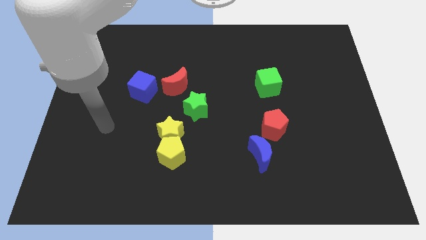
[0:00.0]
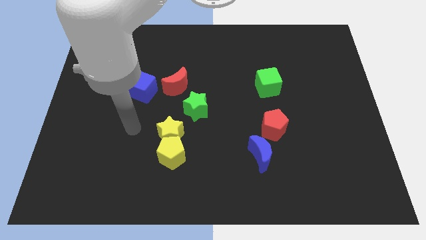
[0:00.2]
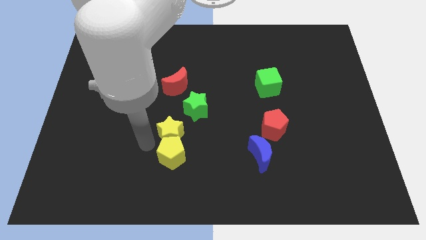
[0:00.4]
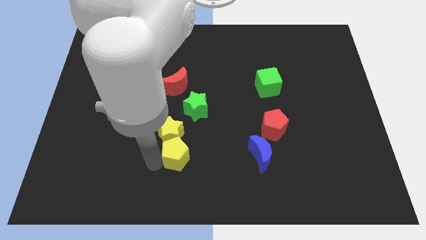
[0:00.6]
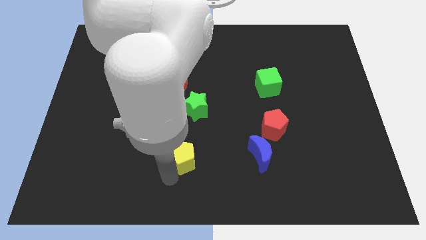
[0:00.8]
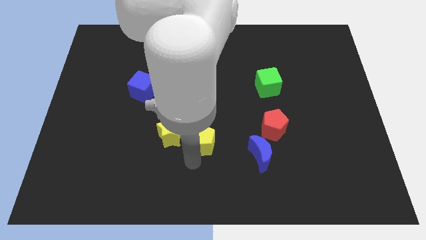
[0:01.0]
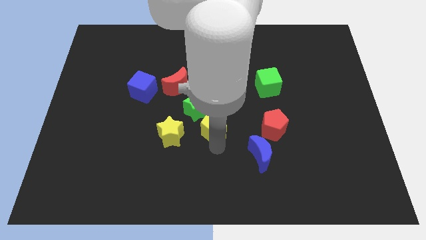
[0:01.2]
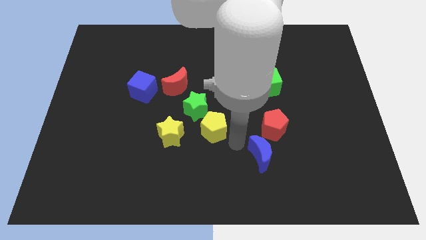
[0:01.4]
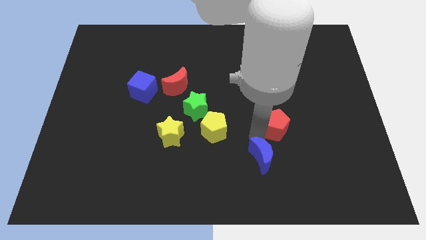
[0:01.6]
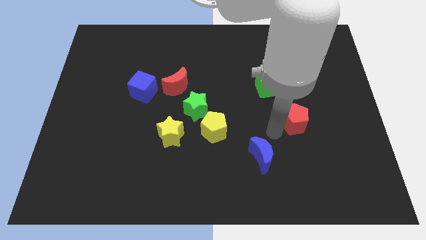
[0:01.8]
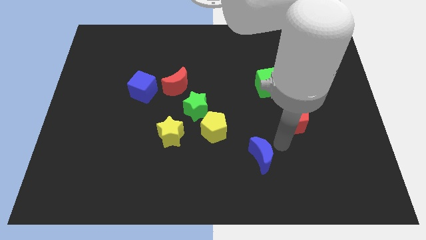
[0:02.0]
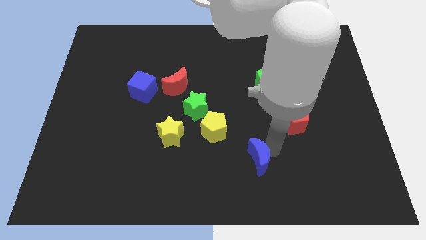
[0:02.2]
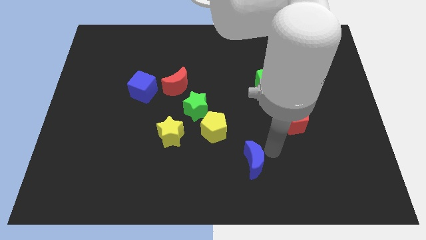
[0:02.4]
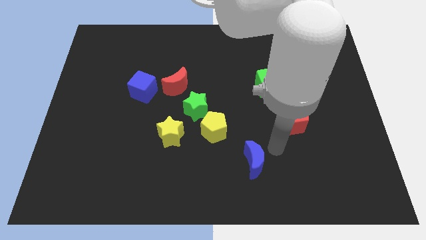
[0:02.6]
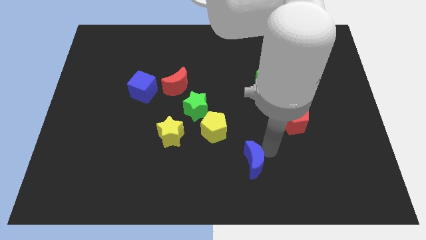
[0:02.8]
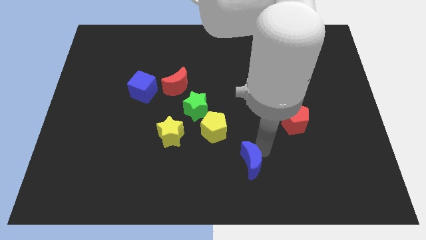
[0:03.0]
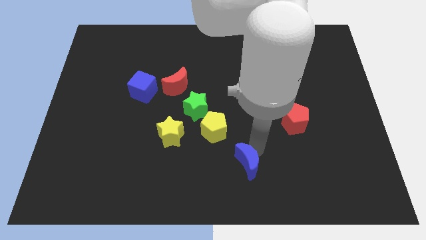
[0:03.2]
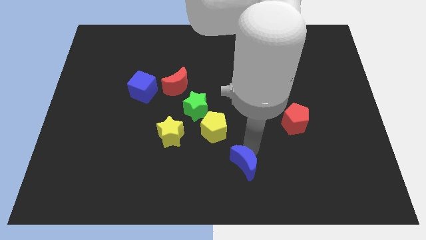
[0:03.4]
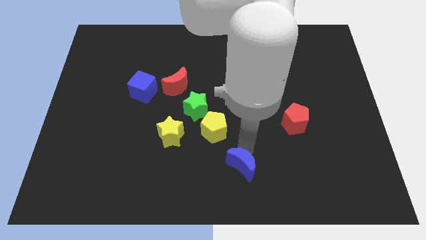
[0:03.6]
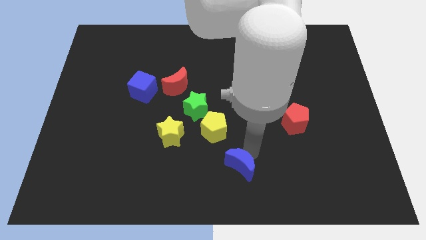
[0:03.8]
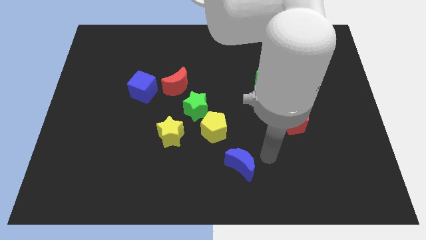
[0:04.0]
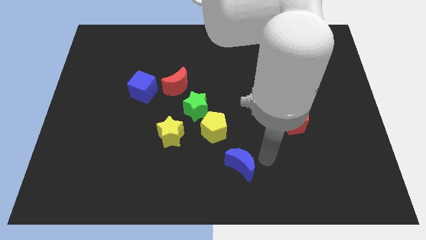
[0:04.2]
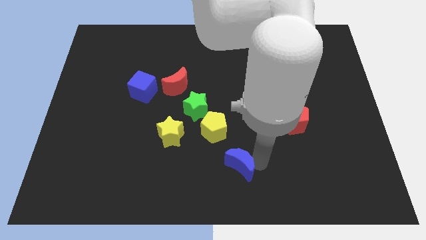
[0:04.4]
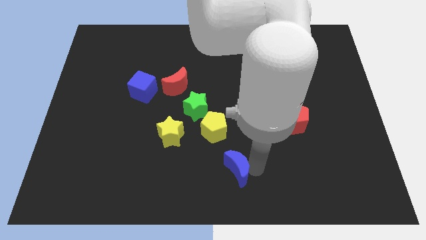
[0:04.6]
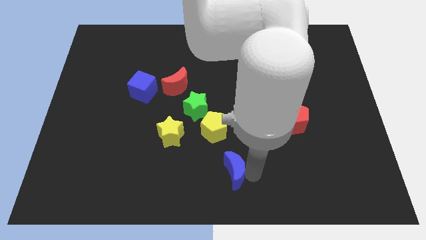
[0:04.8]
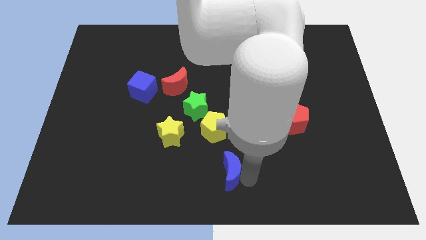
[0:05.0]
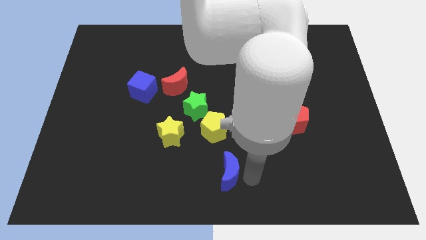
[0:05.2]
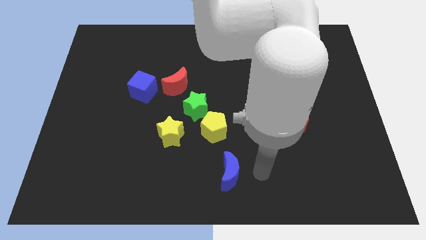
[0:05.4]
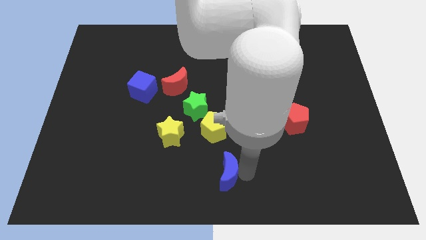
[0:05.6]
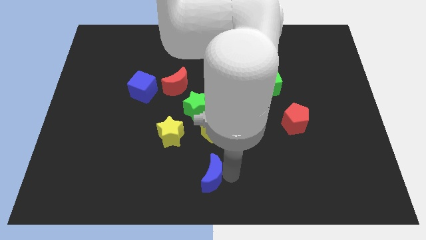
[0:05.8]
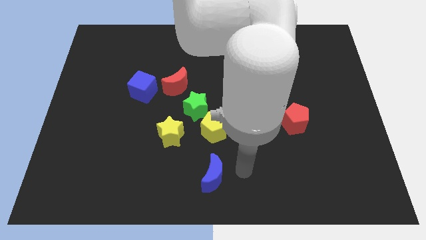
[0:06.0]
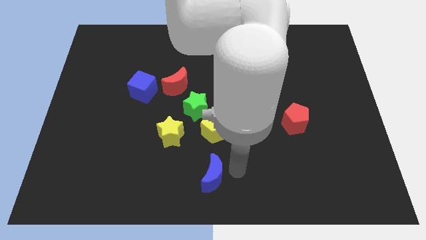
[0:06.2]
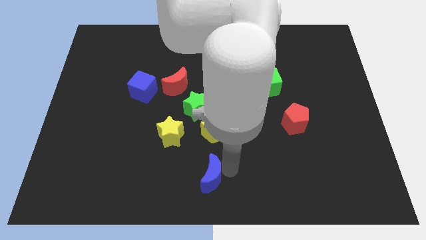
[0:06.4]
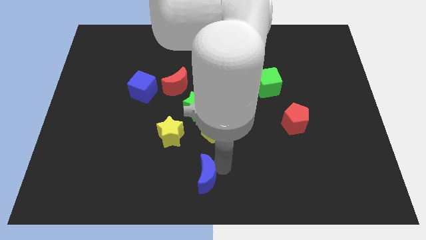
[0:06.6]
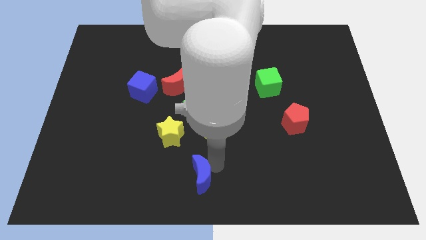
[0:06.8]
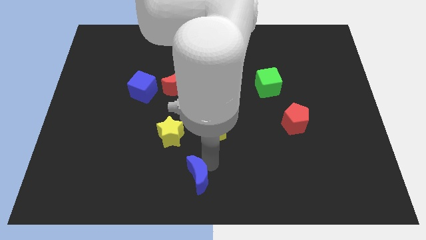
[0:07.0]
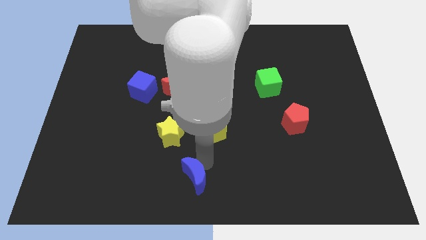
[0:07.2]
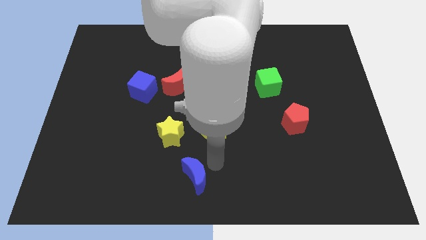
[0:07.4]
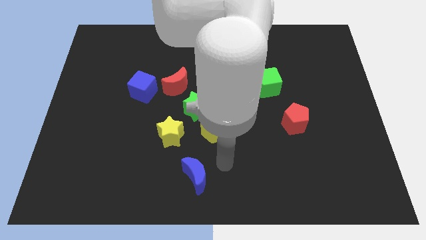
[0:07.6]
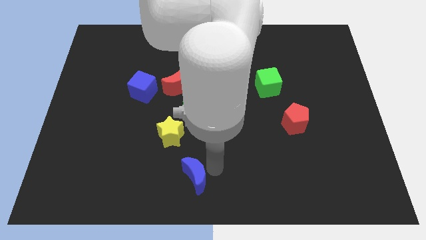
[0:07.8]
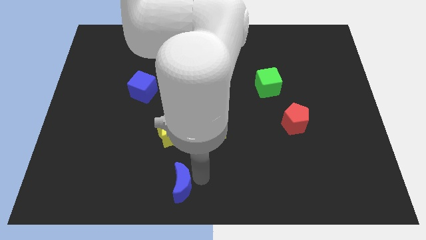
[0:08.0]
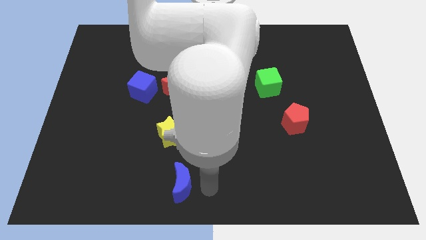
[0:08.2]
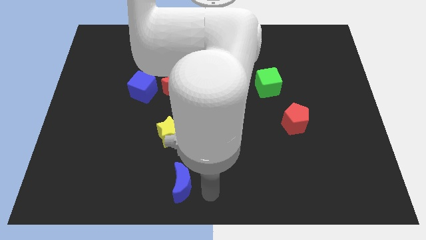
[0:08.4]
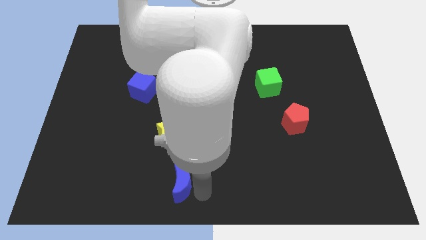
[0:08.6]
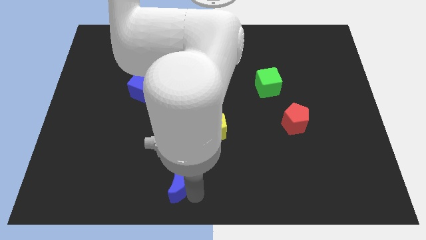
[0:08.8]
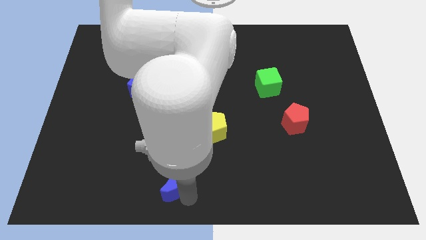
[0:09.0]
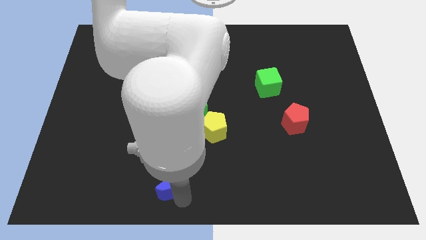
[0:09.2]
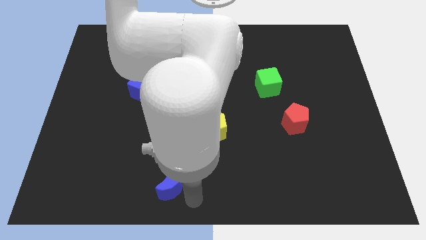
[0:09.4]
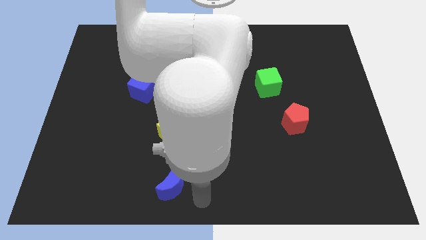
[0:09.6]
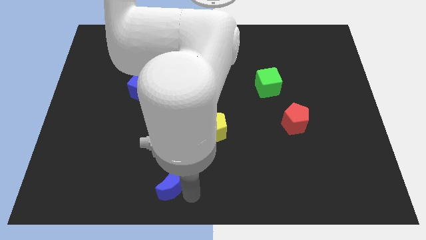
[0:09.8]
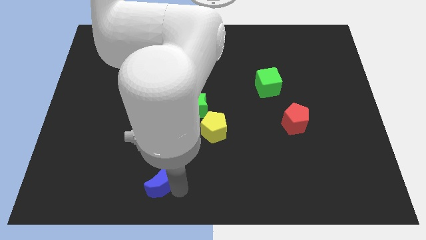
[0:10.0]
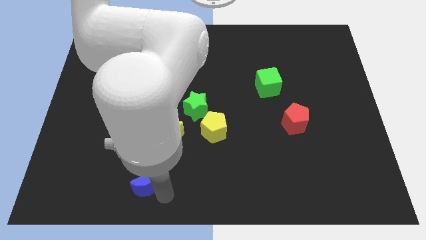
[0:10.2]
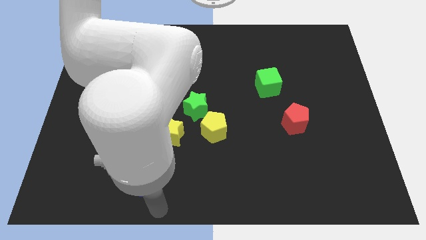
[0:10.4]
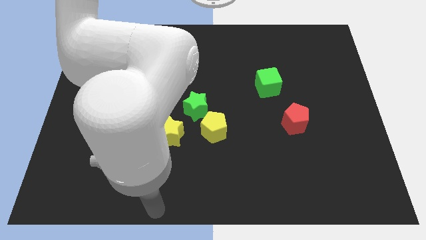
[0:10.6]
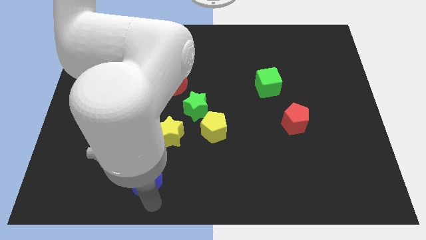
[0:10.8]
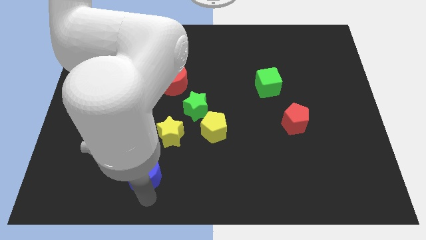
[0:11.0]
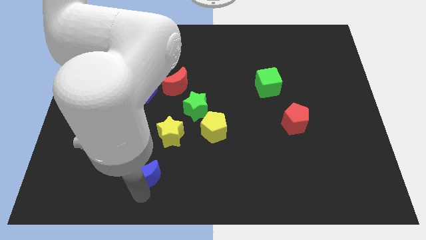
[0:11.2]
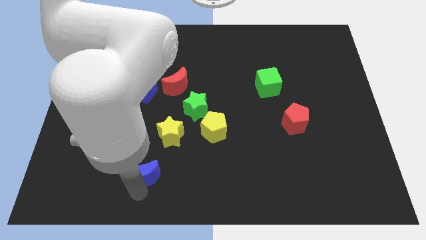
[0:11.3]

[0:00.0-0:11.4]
slide the blue moon to the bottom left of the yellow star

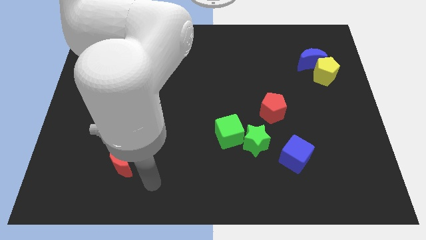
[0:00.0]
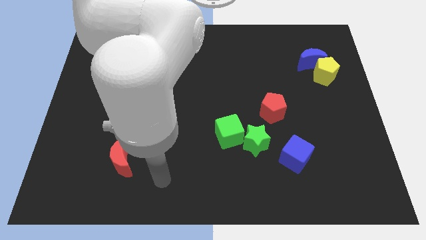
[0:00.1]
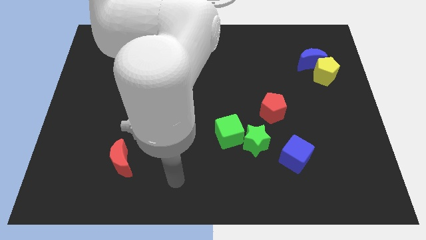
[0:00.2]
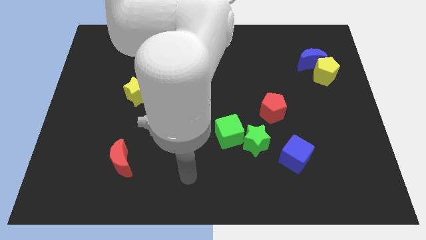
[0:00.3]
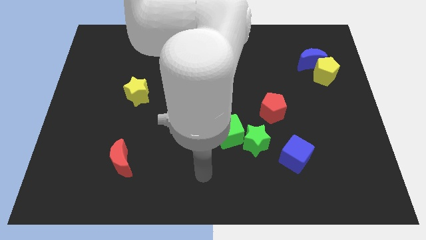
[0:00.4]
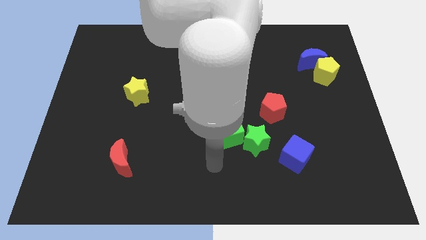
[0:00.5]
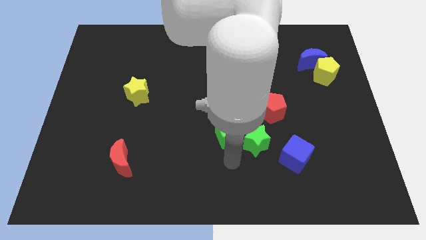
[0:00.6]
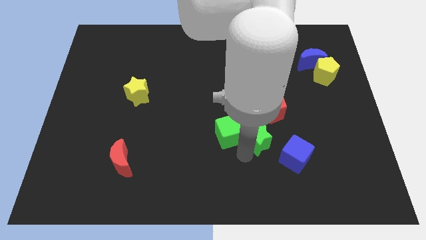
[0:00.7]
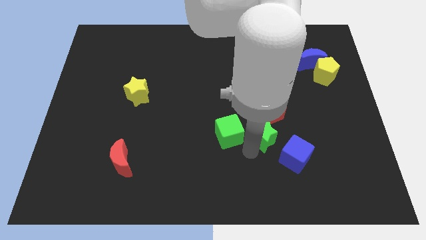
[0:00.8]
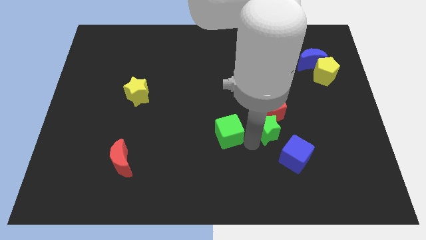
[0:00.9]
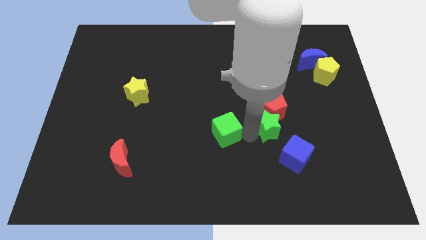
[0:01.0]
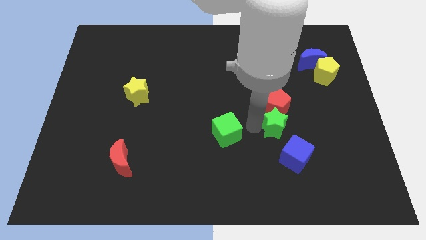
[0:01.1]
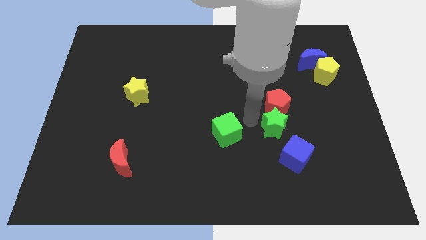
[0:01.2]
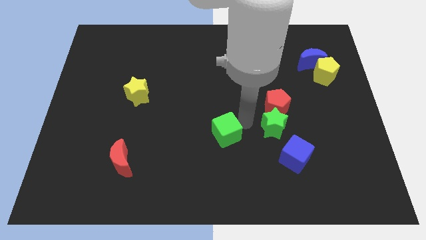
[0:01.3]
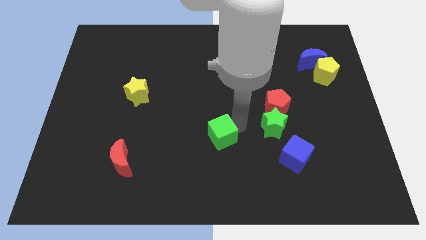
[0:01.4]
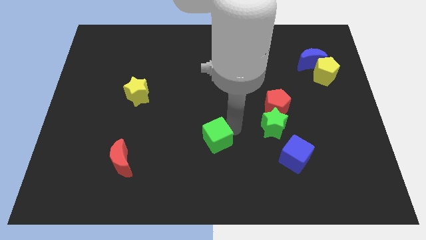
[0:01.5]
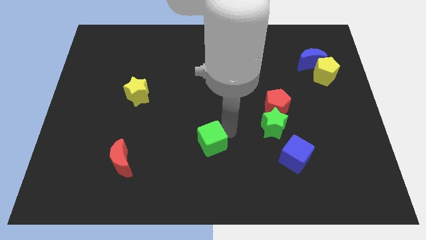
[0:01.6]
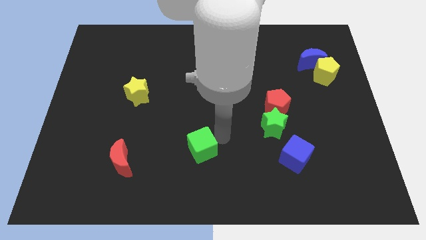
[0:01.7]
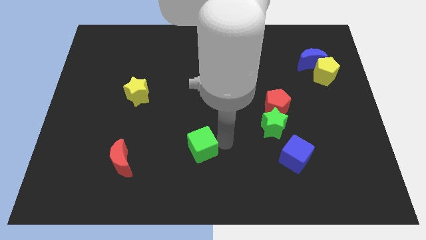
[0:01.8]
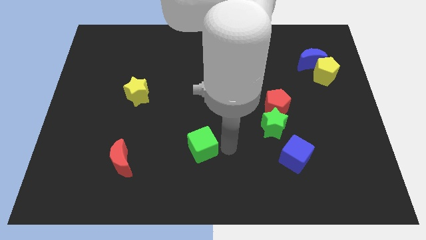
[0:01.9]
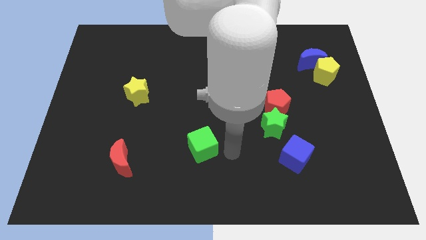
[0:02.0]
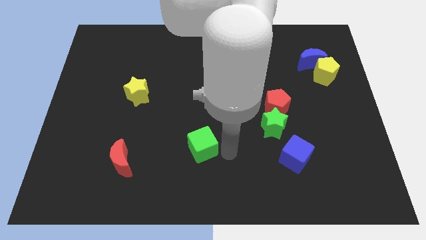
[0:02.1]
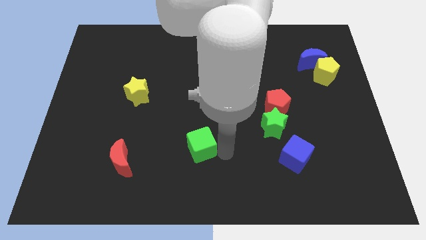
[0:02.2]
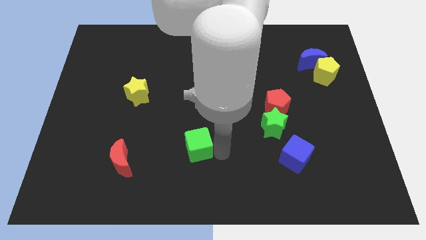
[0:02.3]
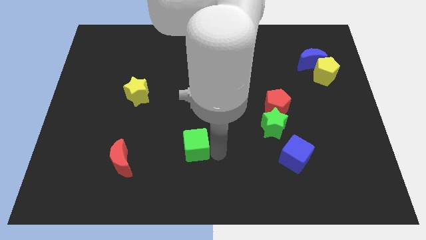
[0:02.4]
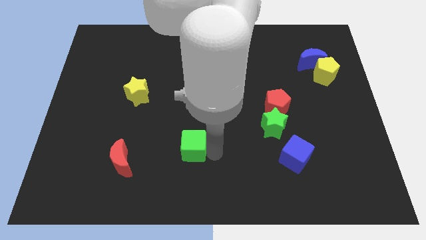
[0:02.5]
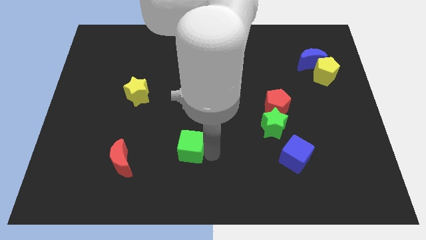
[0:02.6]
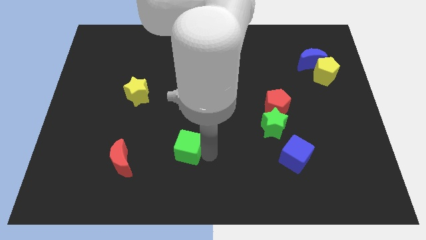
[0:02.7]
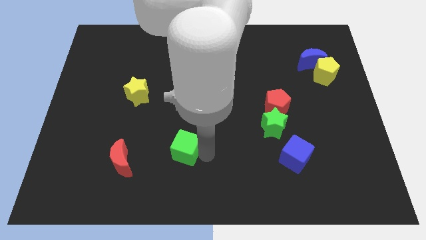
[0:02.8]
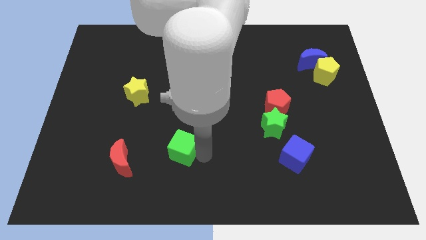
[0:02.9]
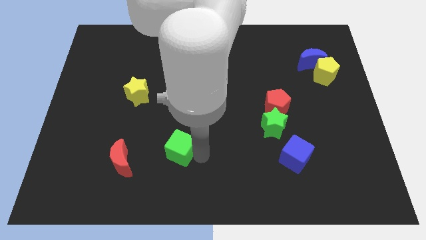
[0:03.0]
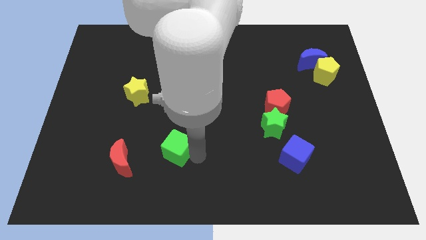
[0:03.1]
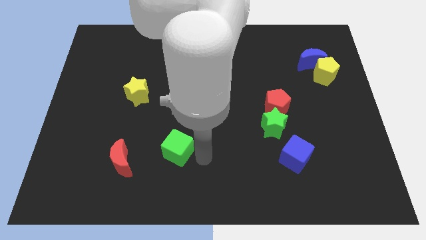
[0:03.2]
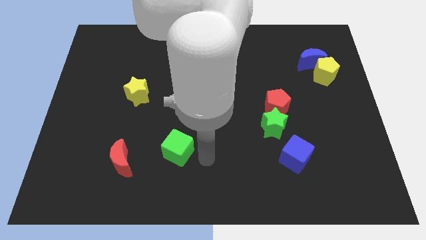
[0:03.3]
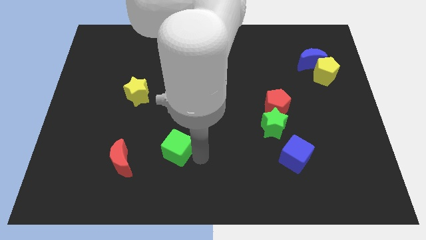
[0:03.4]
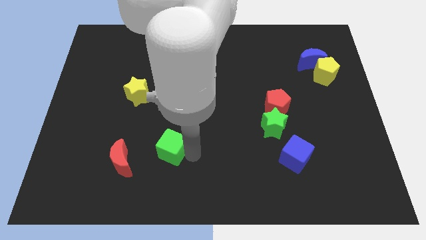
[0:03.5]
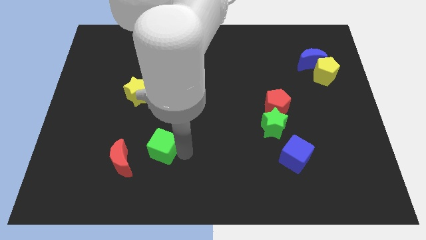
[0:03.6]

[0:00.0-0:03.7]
move the green cube to the top right side of the red moon
